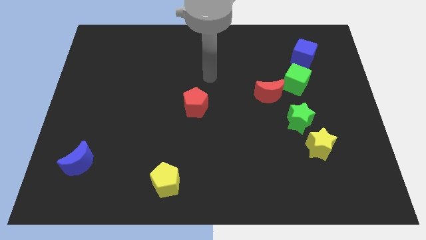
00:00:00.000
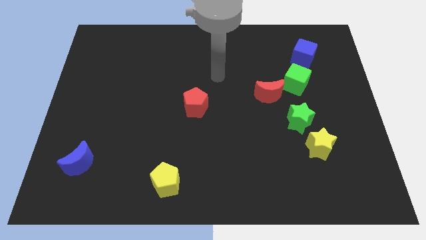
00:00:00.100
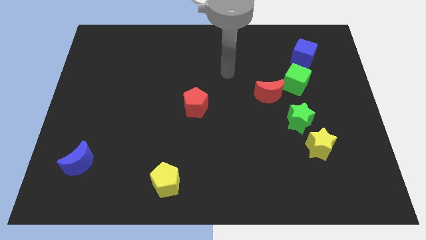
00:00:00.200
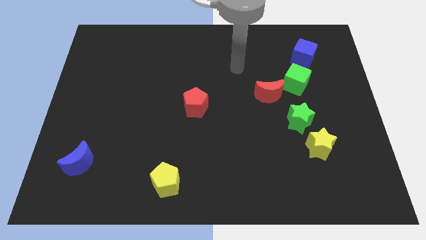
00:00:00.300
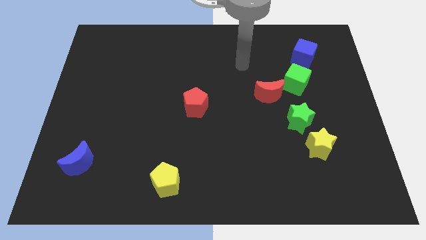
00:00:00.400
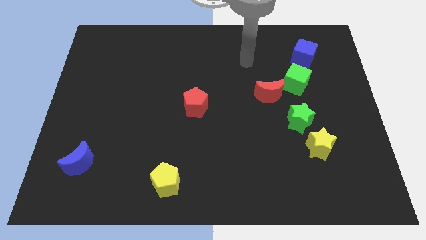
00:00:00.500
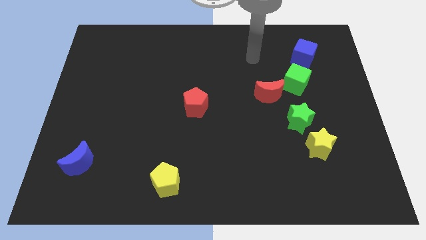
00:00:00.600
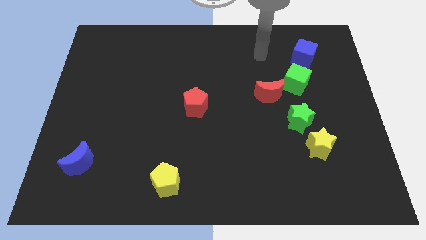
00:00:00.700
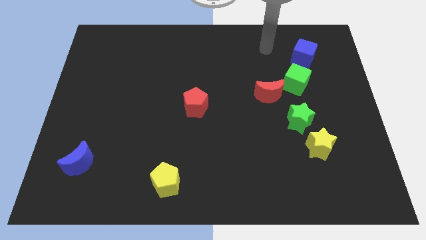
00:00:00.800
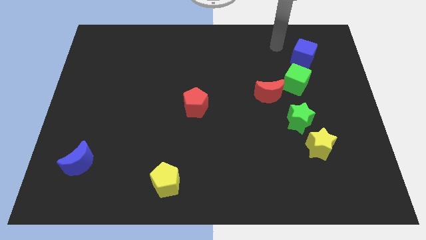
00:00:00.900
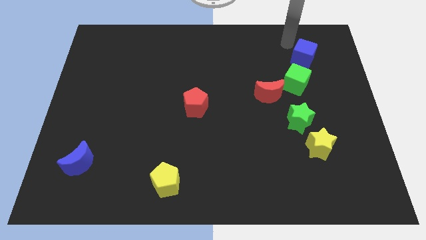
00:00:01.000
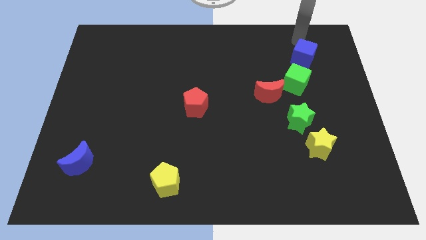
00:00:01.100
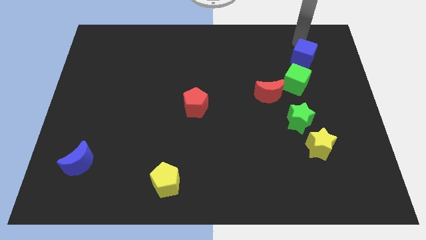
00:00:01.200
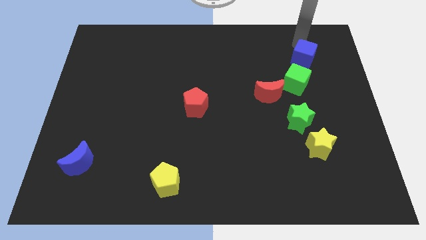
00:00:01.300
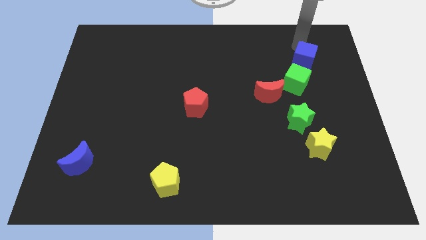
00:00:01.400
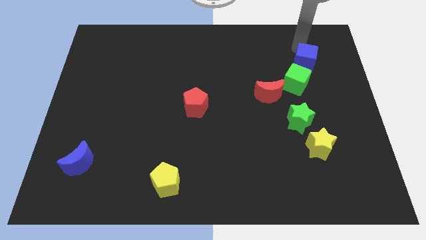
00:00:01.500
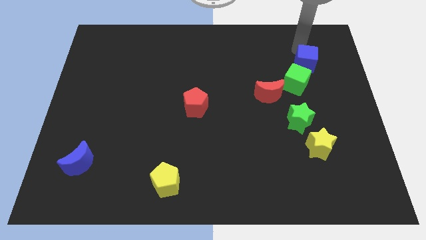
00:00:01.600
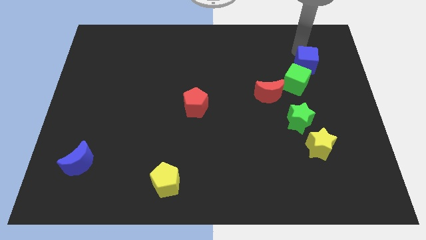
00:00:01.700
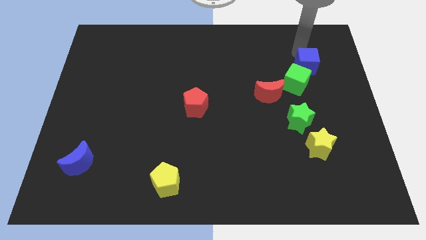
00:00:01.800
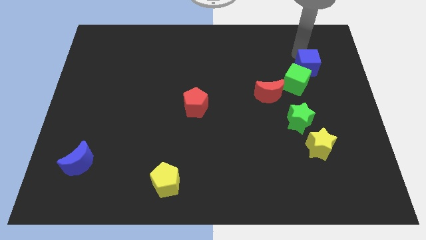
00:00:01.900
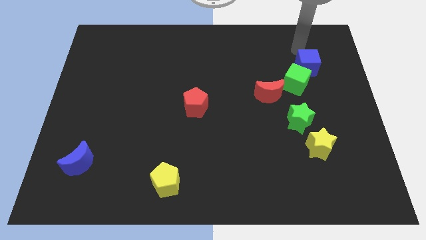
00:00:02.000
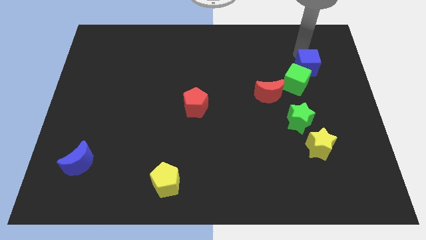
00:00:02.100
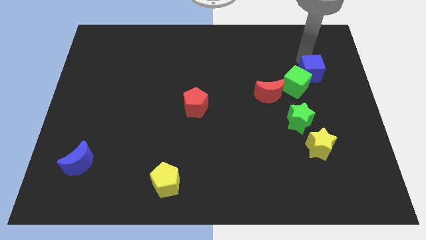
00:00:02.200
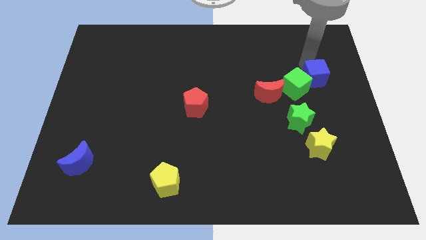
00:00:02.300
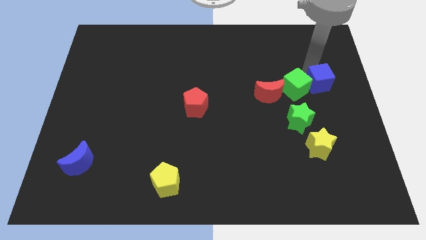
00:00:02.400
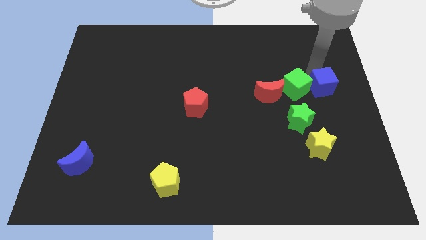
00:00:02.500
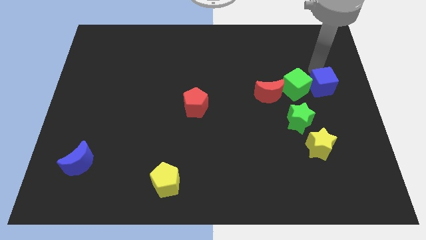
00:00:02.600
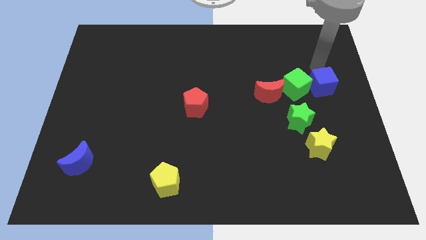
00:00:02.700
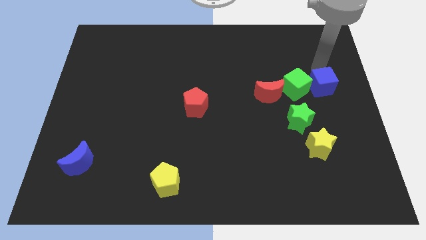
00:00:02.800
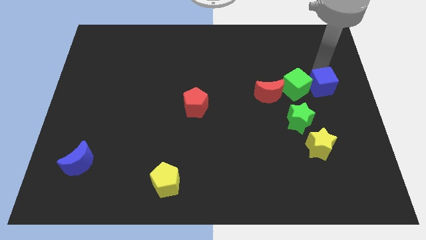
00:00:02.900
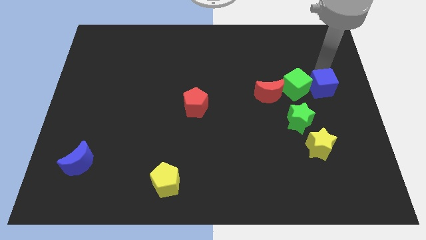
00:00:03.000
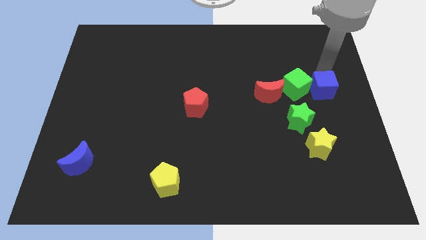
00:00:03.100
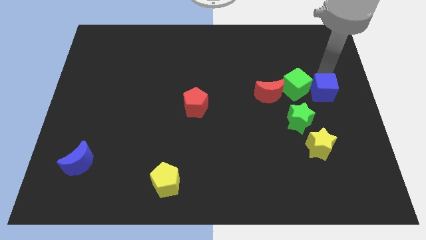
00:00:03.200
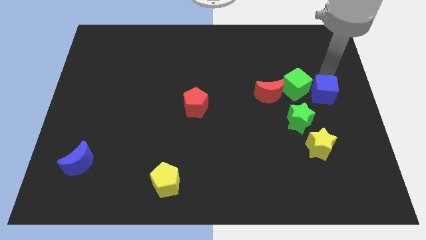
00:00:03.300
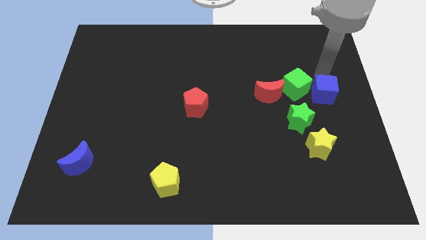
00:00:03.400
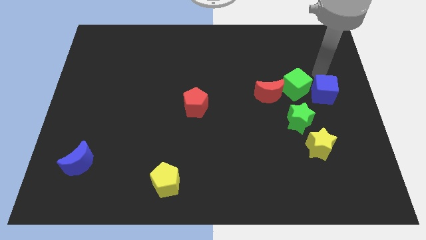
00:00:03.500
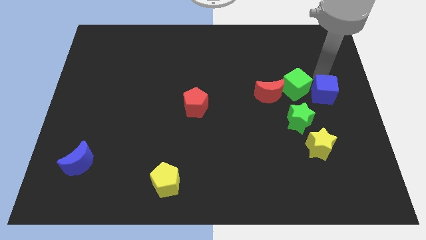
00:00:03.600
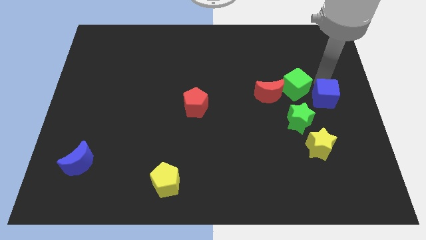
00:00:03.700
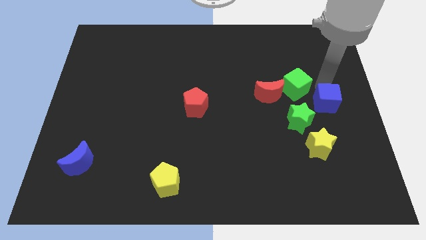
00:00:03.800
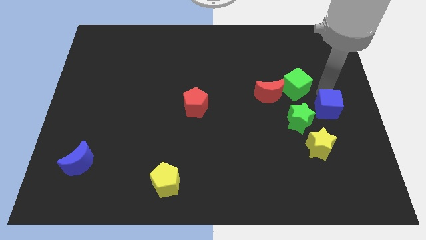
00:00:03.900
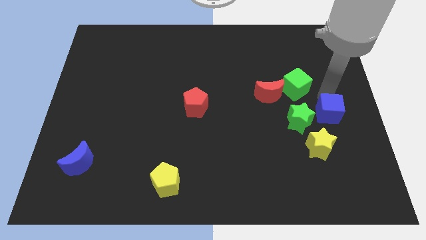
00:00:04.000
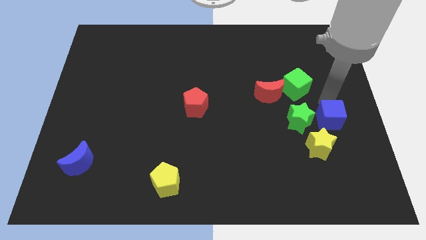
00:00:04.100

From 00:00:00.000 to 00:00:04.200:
slide the blue cube down

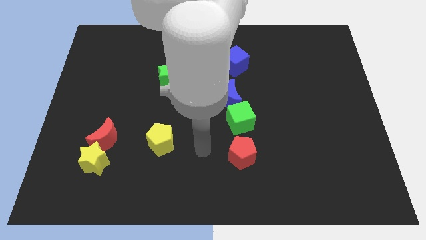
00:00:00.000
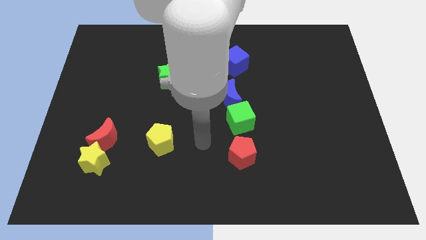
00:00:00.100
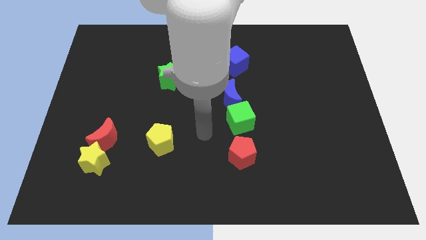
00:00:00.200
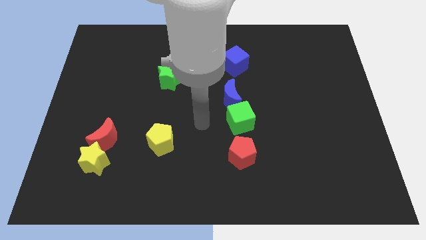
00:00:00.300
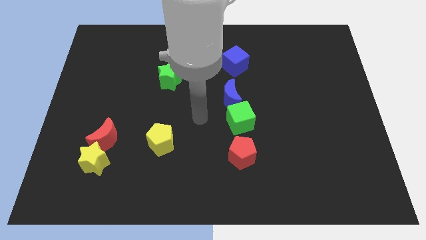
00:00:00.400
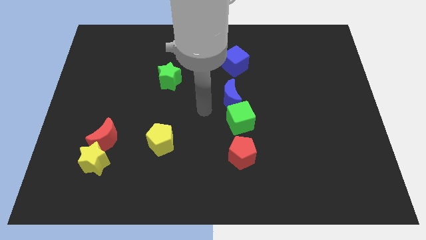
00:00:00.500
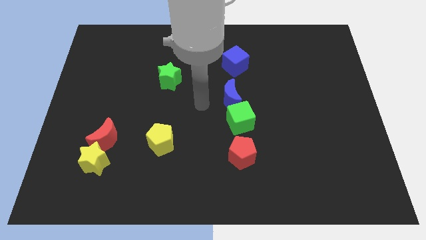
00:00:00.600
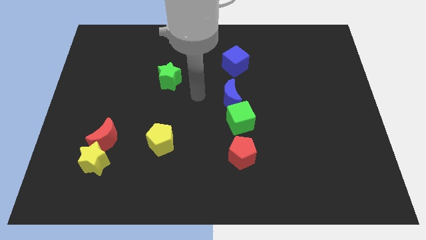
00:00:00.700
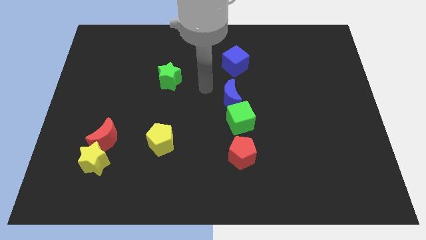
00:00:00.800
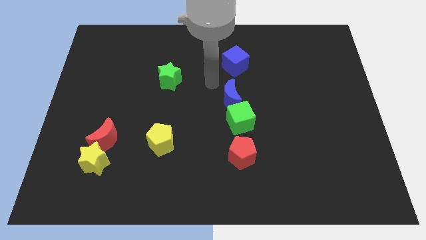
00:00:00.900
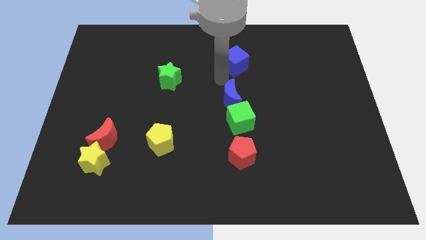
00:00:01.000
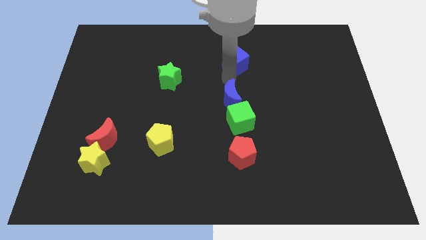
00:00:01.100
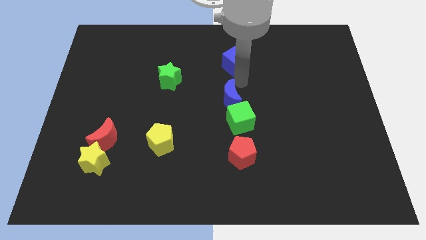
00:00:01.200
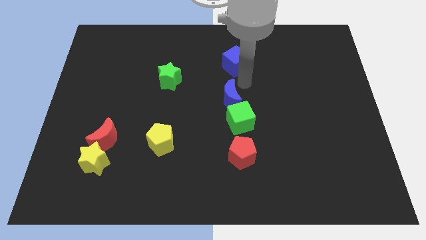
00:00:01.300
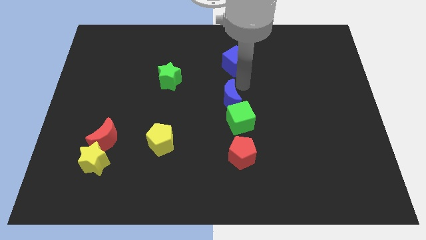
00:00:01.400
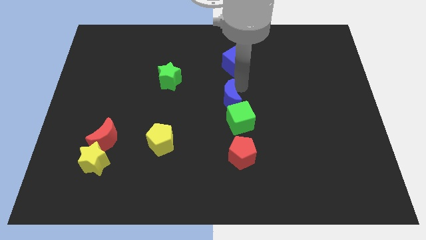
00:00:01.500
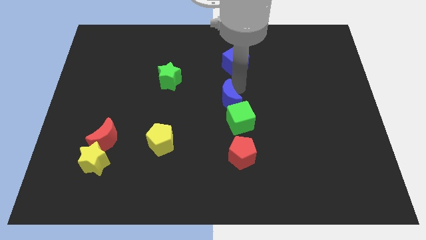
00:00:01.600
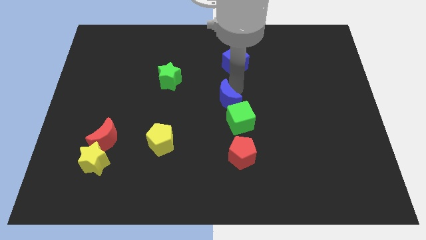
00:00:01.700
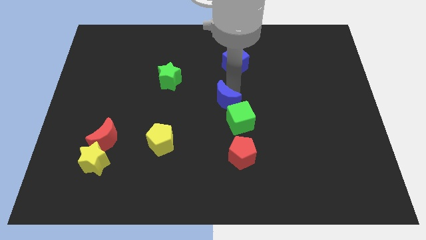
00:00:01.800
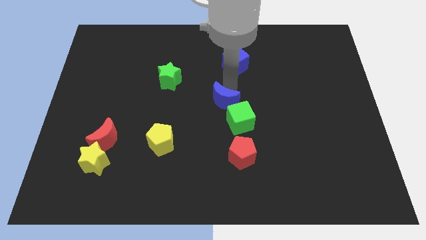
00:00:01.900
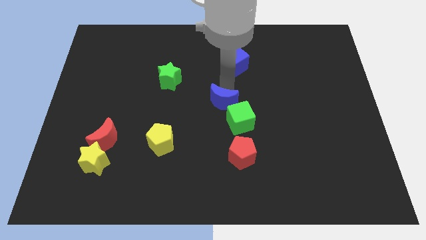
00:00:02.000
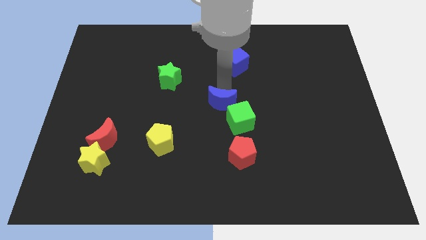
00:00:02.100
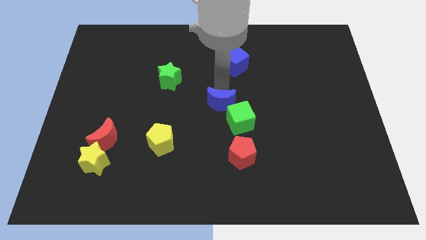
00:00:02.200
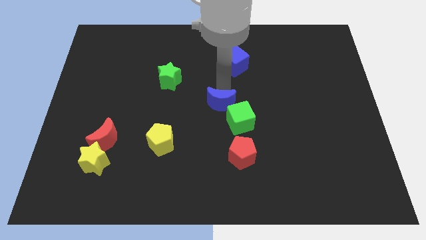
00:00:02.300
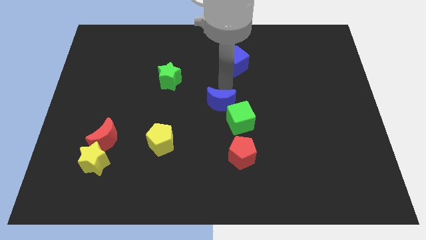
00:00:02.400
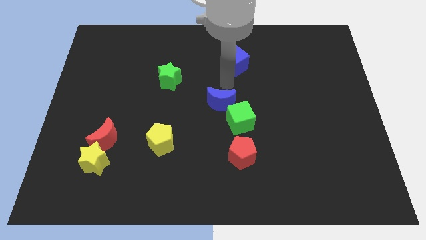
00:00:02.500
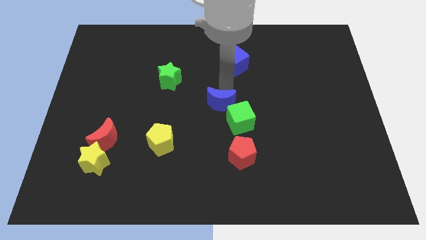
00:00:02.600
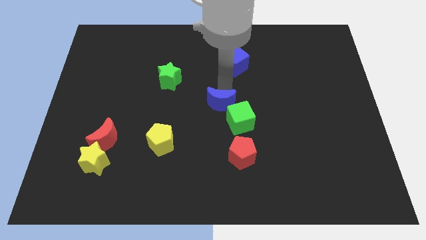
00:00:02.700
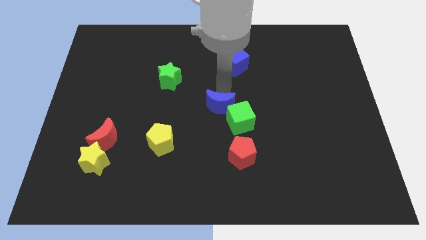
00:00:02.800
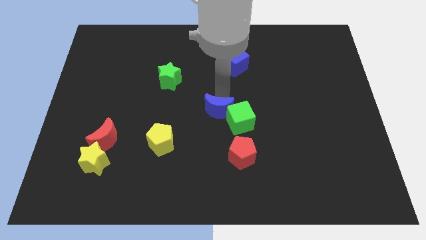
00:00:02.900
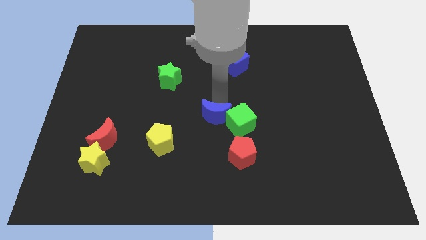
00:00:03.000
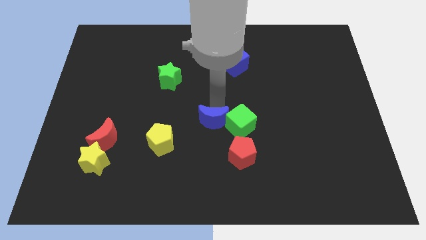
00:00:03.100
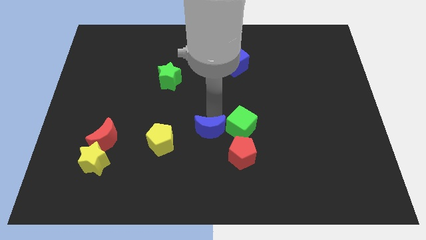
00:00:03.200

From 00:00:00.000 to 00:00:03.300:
slightly slide the blue moon downwards

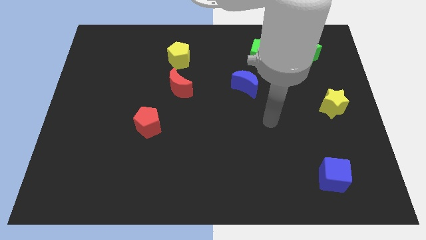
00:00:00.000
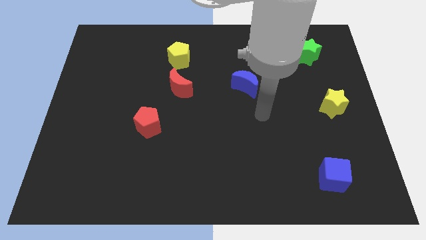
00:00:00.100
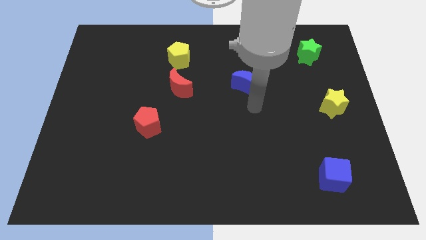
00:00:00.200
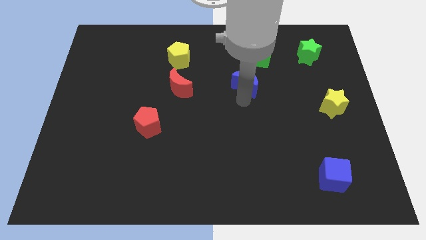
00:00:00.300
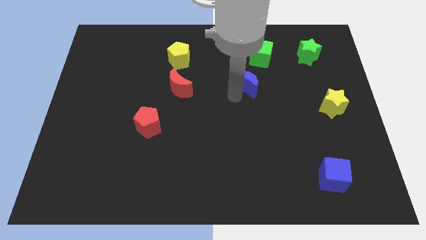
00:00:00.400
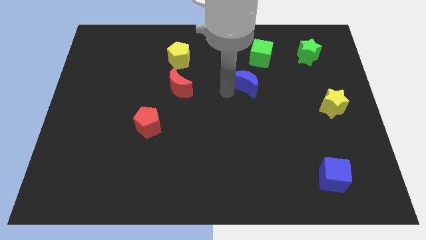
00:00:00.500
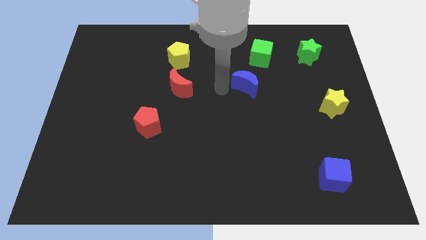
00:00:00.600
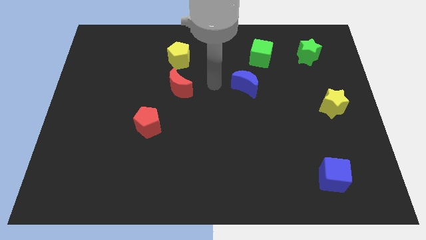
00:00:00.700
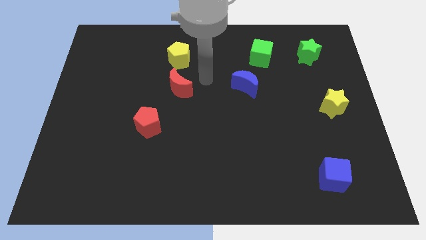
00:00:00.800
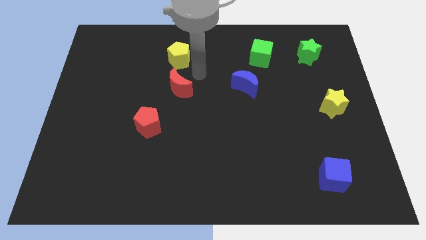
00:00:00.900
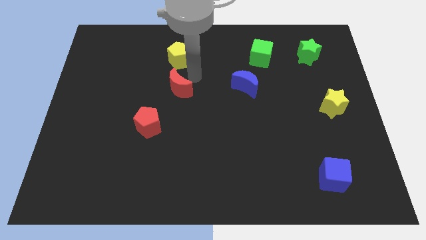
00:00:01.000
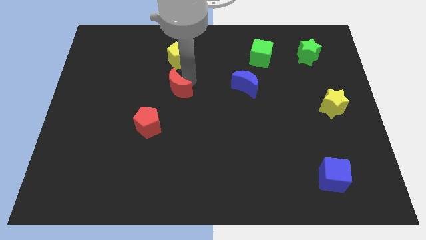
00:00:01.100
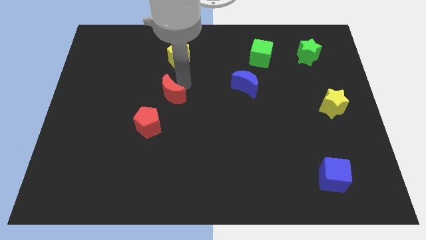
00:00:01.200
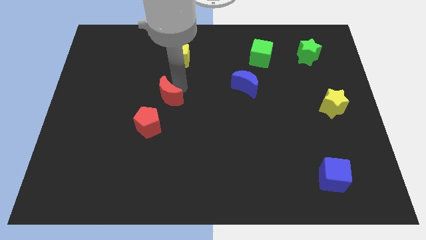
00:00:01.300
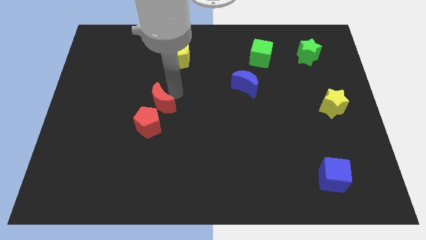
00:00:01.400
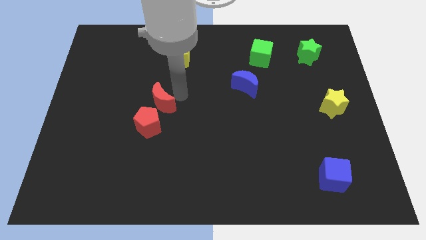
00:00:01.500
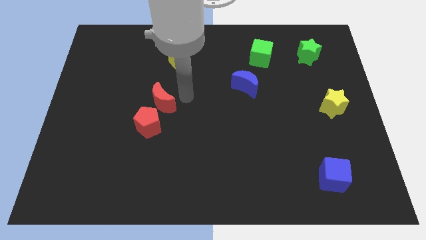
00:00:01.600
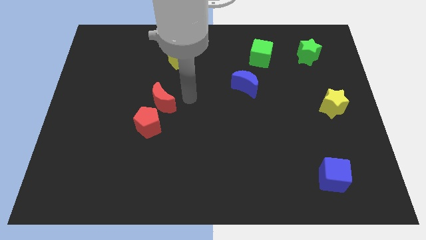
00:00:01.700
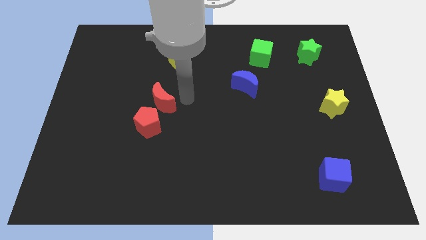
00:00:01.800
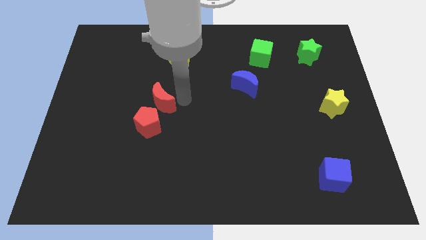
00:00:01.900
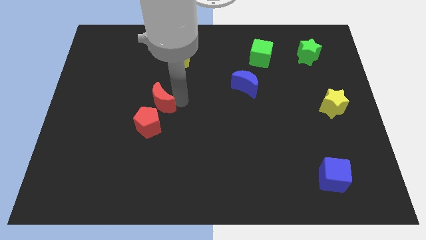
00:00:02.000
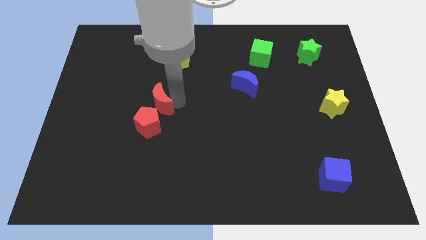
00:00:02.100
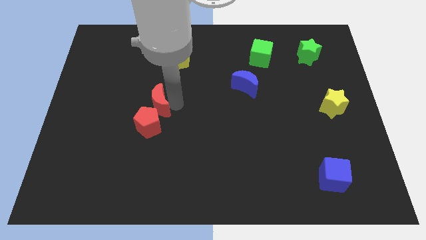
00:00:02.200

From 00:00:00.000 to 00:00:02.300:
slightly push the red moon downwards and left
